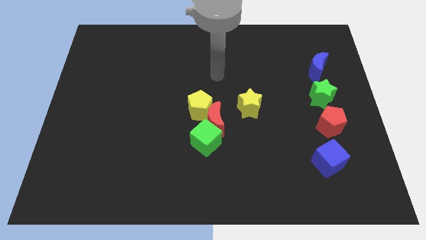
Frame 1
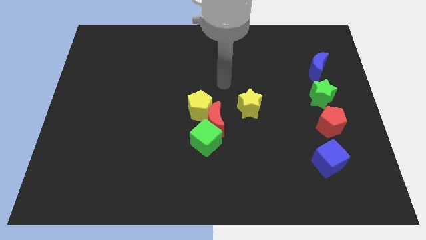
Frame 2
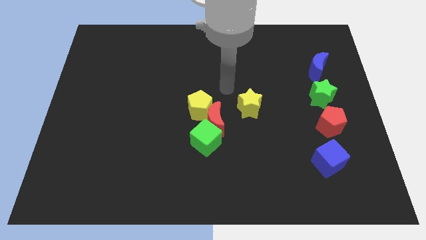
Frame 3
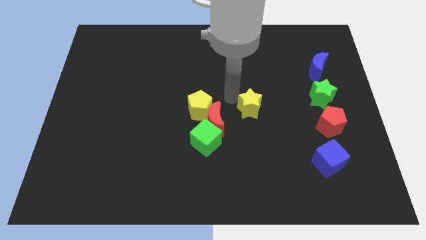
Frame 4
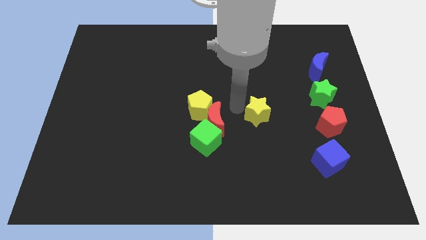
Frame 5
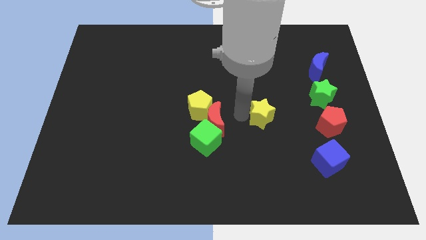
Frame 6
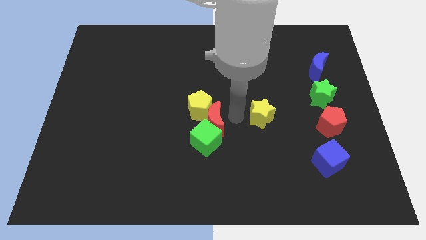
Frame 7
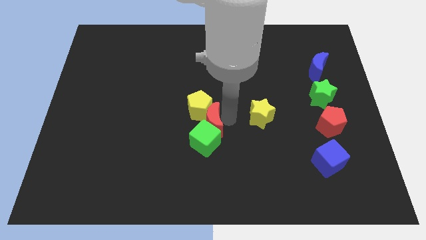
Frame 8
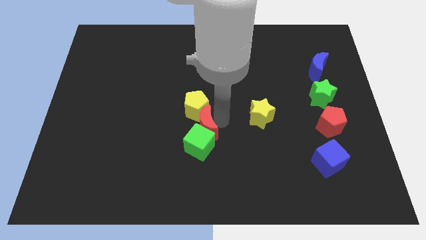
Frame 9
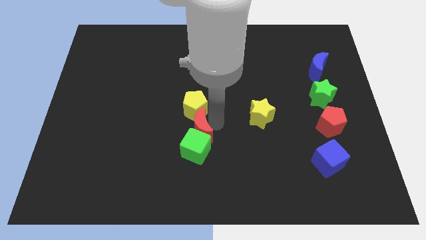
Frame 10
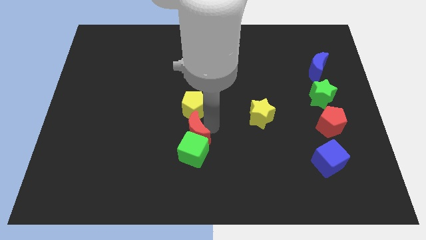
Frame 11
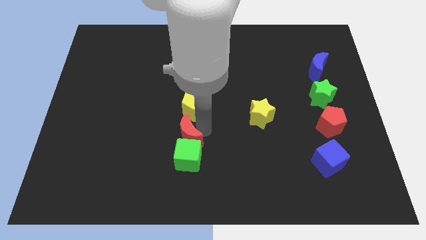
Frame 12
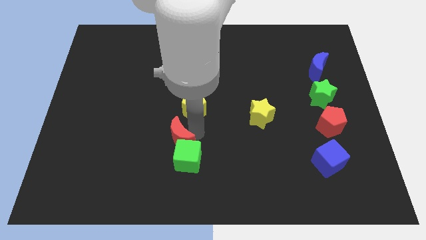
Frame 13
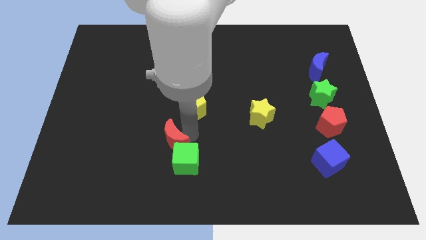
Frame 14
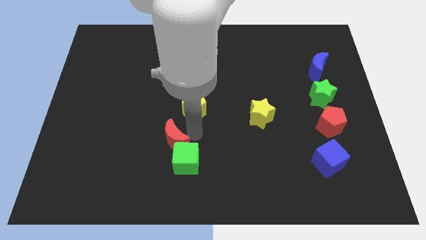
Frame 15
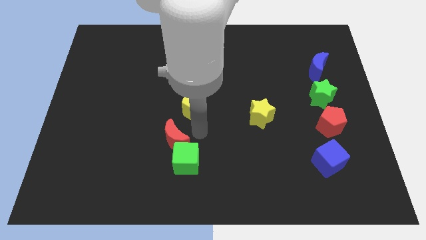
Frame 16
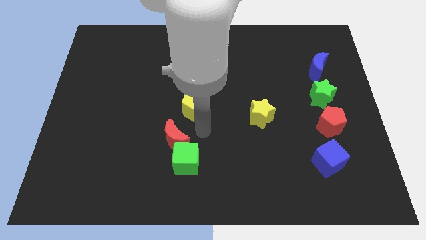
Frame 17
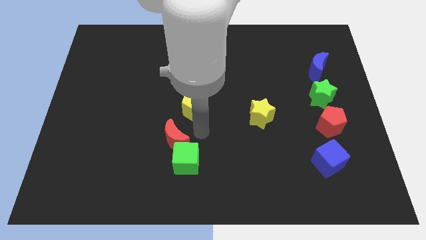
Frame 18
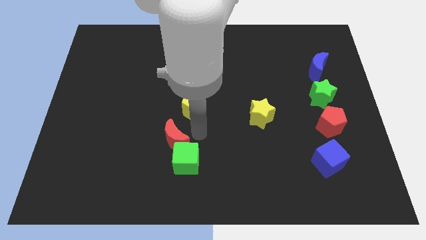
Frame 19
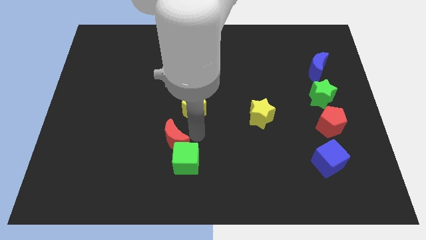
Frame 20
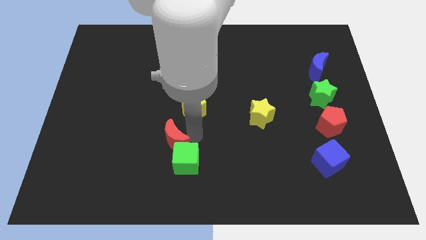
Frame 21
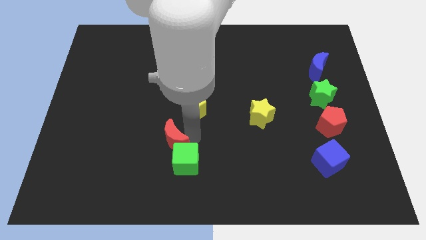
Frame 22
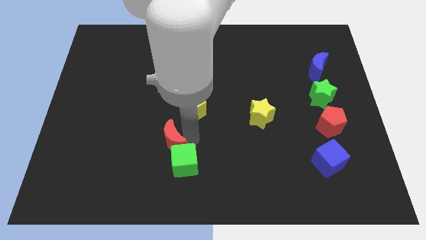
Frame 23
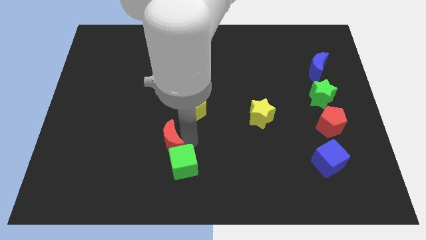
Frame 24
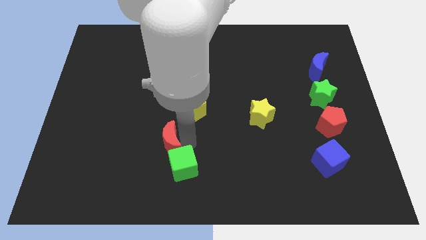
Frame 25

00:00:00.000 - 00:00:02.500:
move the red moon away from the clump

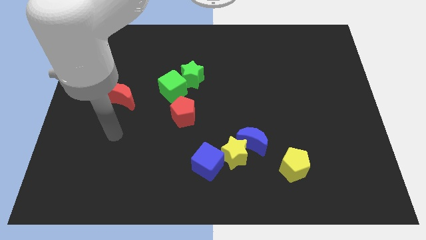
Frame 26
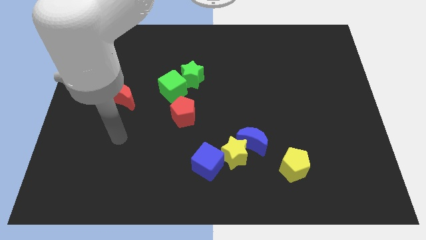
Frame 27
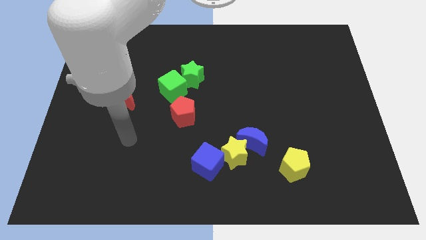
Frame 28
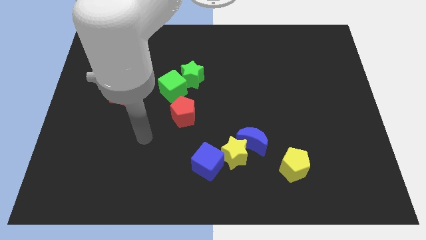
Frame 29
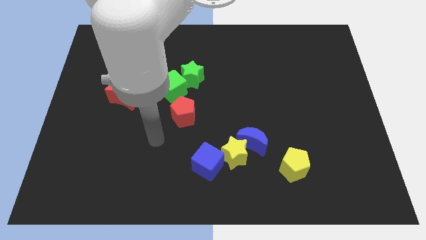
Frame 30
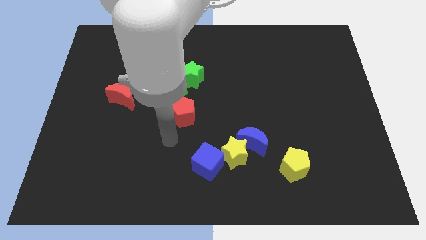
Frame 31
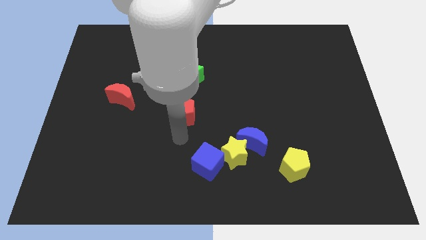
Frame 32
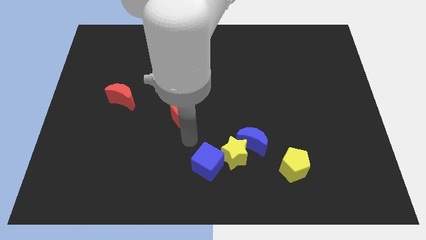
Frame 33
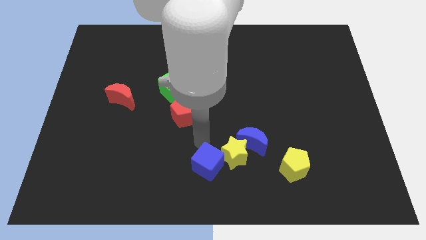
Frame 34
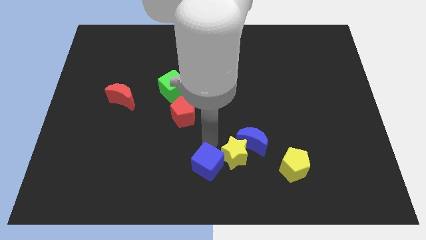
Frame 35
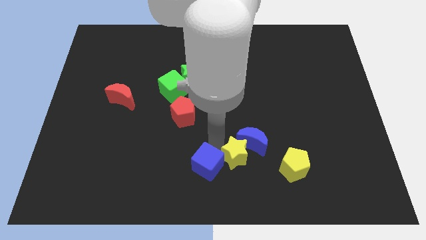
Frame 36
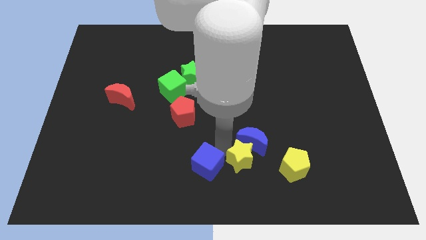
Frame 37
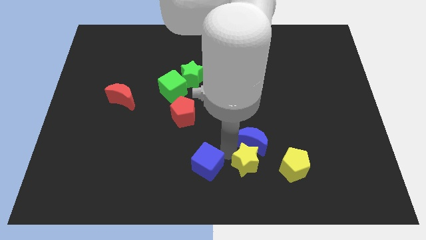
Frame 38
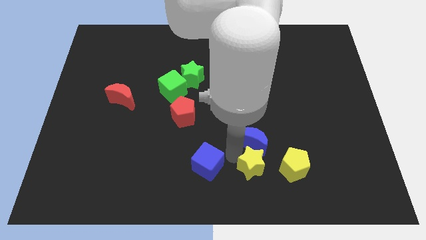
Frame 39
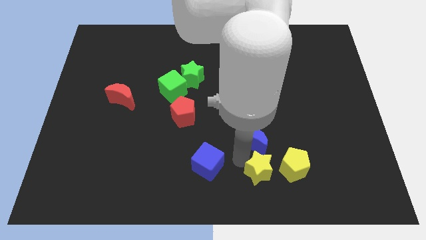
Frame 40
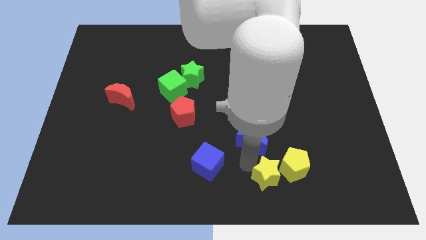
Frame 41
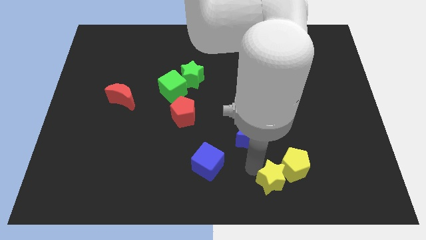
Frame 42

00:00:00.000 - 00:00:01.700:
pull the yellow star apart from the blue moon and blue cube

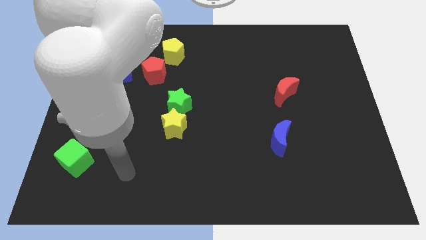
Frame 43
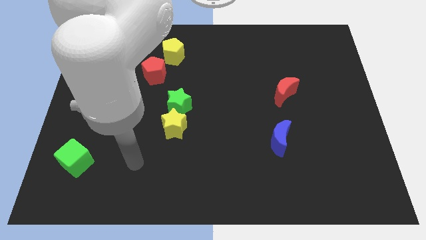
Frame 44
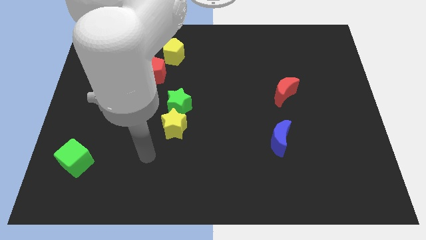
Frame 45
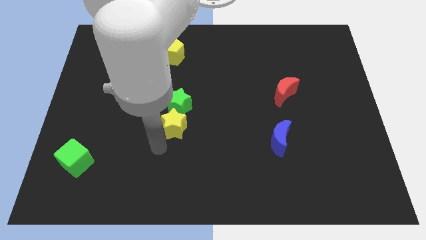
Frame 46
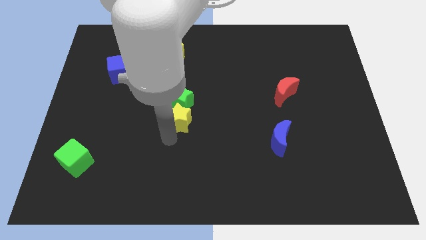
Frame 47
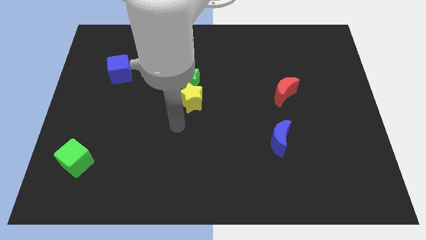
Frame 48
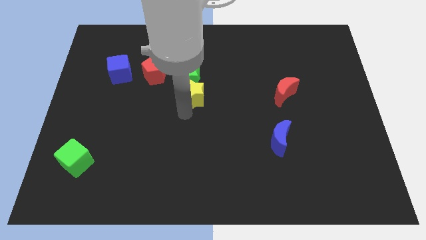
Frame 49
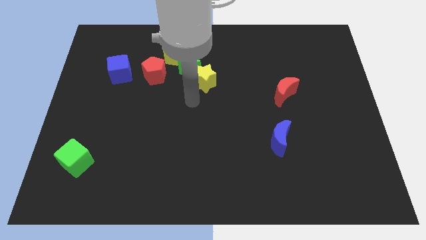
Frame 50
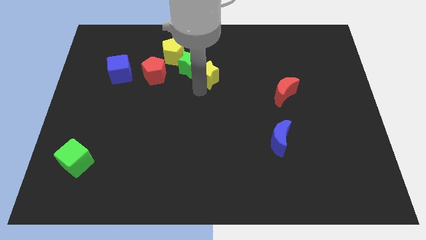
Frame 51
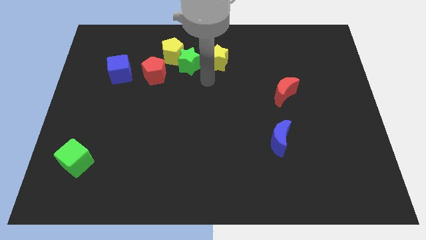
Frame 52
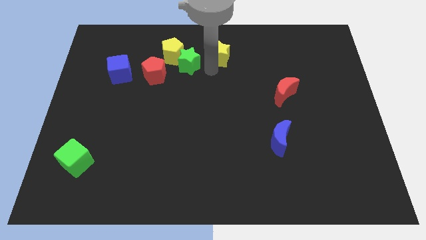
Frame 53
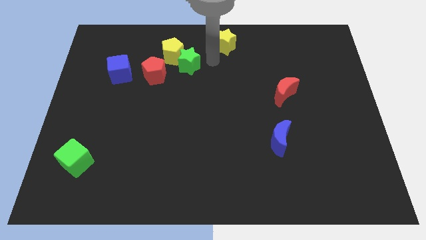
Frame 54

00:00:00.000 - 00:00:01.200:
pull the green star apart from the yellow star

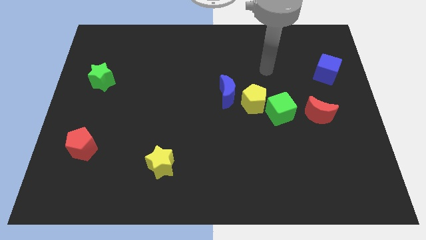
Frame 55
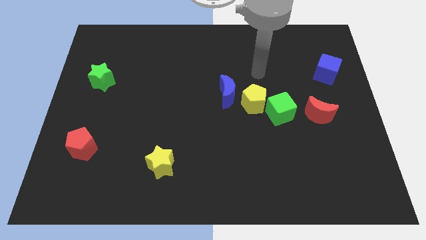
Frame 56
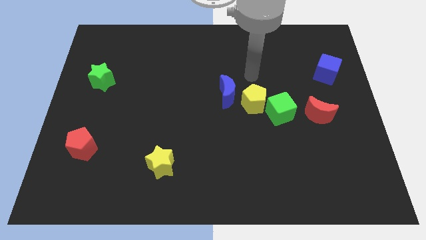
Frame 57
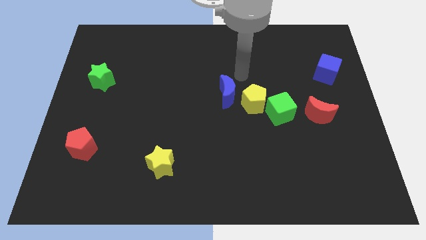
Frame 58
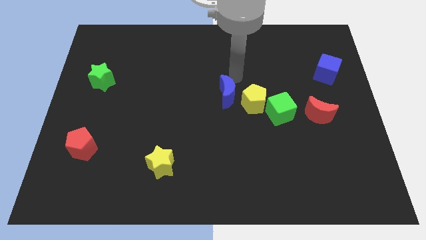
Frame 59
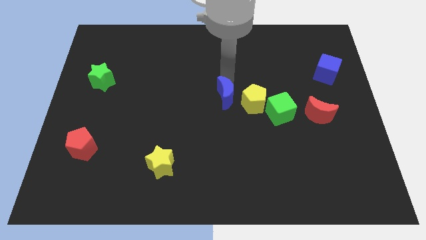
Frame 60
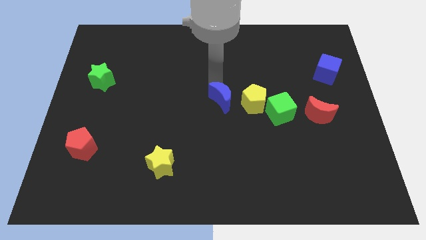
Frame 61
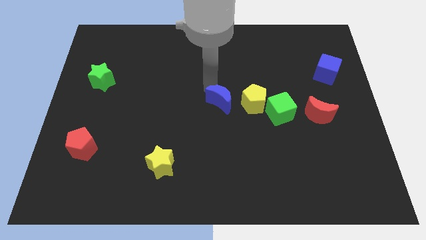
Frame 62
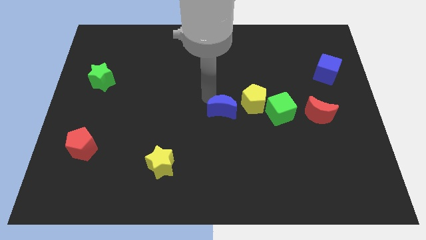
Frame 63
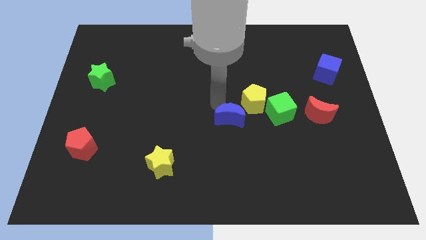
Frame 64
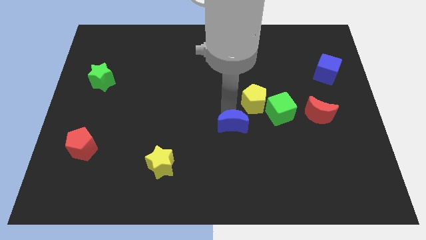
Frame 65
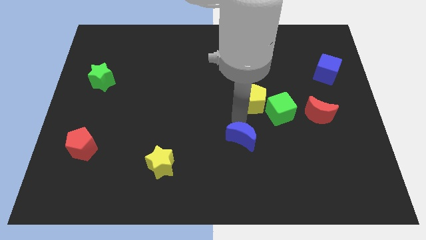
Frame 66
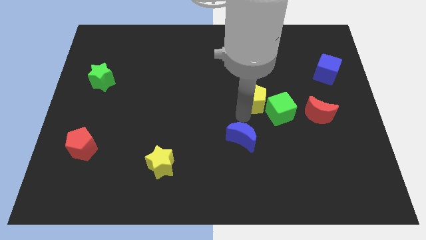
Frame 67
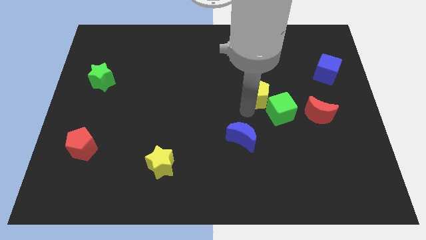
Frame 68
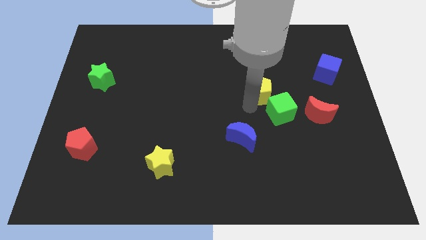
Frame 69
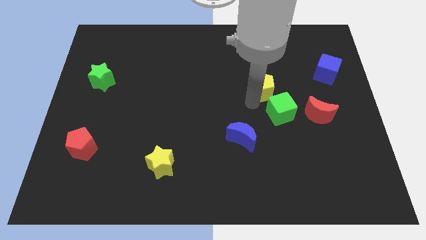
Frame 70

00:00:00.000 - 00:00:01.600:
move the yellow pentagon away from the green cube and blue moon

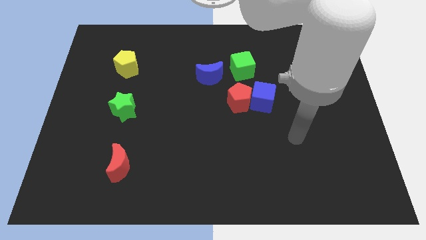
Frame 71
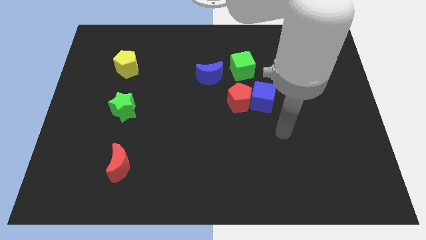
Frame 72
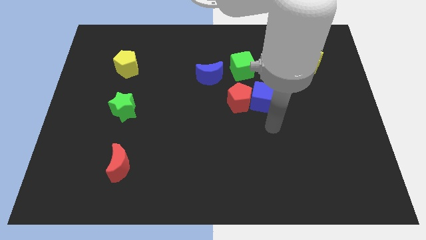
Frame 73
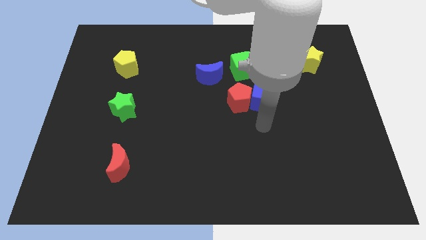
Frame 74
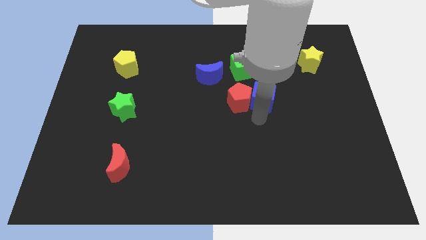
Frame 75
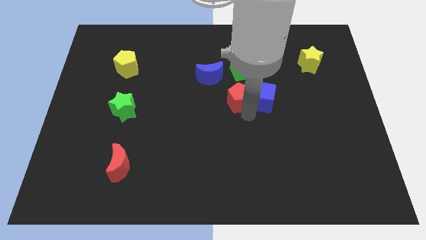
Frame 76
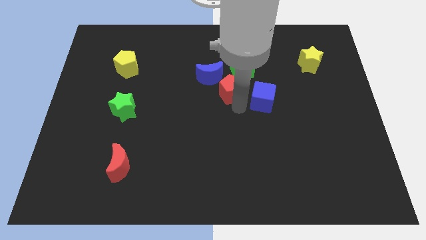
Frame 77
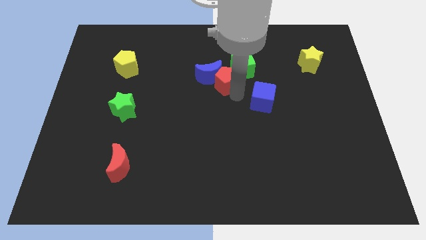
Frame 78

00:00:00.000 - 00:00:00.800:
separate the blue cube from the red pentagon

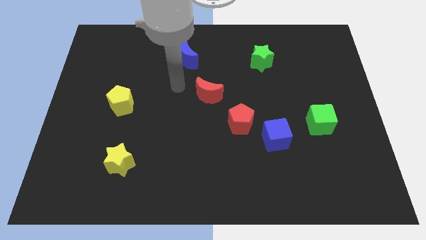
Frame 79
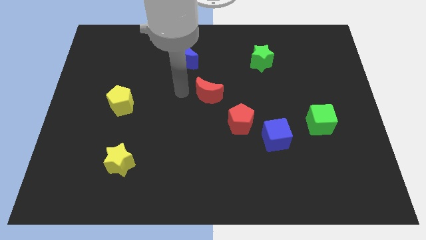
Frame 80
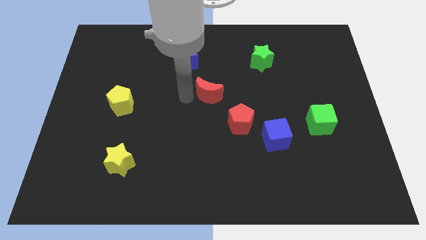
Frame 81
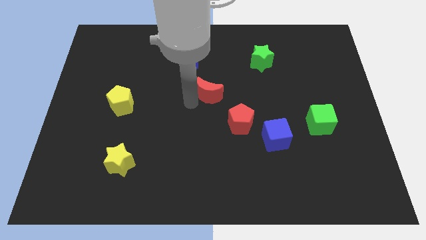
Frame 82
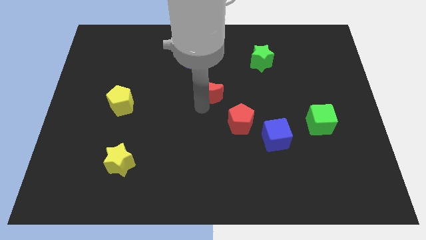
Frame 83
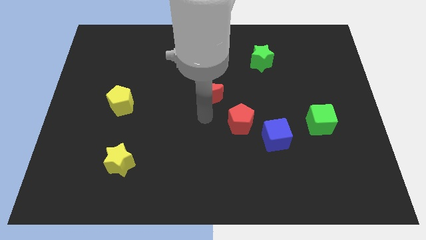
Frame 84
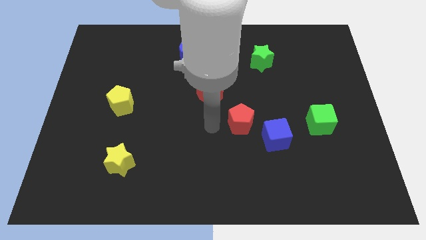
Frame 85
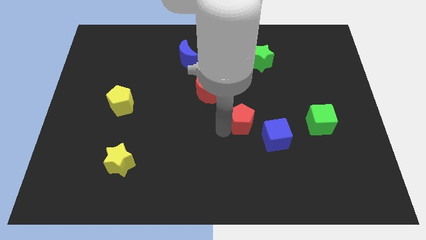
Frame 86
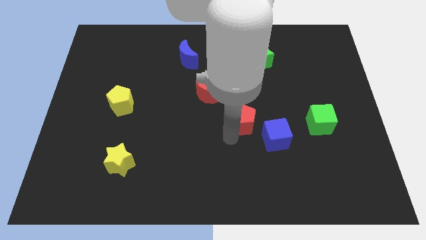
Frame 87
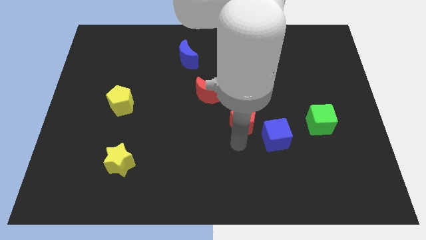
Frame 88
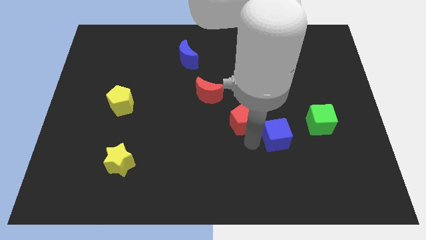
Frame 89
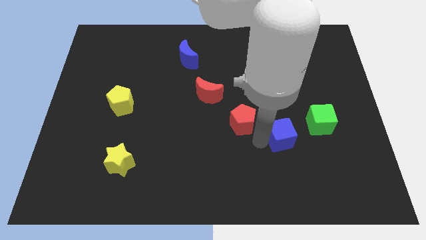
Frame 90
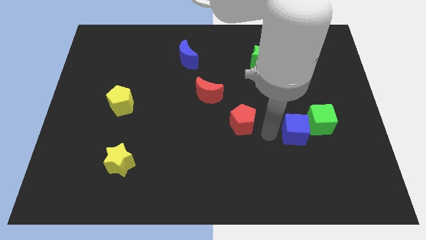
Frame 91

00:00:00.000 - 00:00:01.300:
separate the red pentagon from the blue cube
